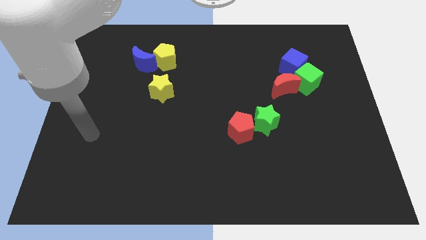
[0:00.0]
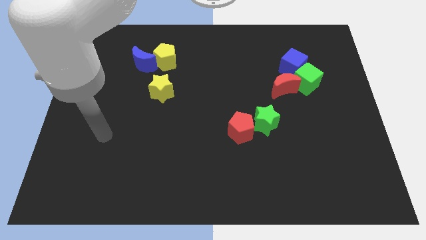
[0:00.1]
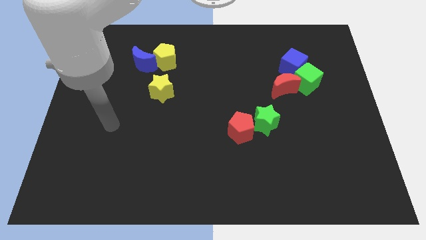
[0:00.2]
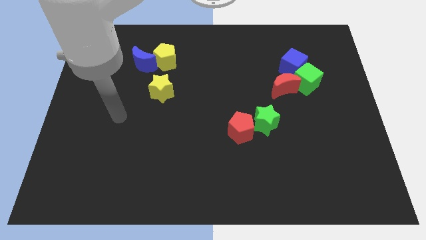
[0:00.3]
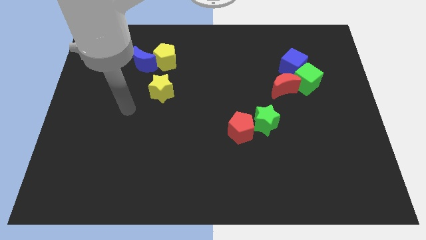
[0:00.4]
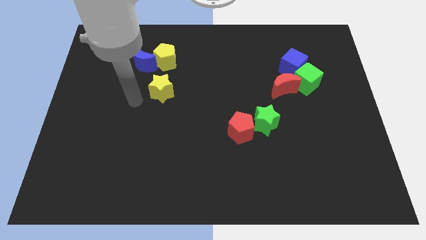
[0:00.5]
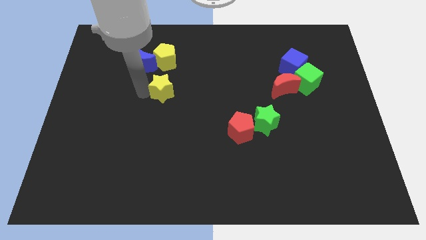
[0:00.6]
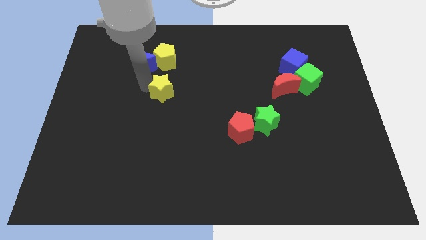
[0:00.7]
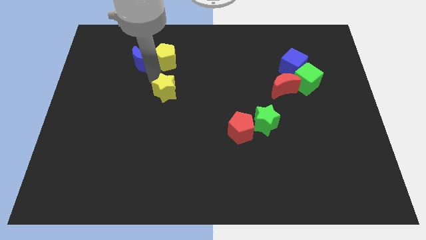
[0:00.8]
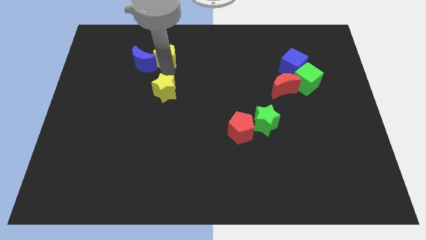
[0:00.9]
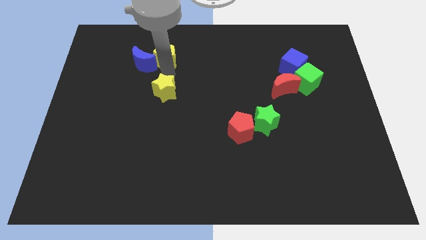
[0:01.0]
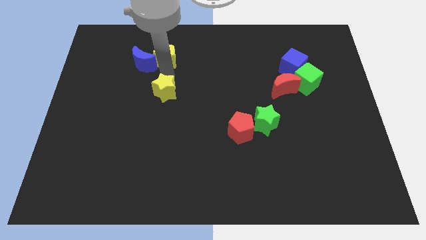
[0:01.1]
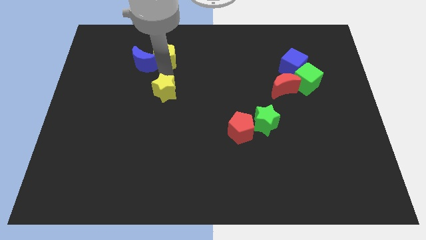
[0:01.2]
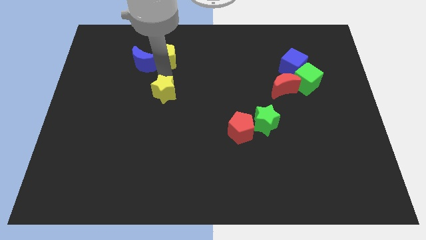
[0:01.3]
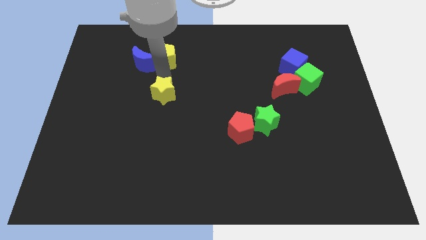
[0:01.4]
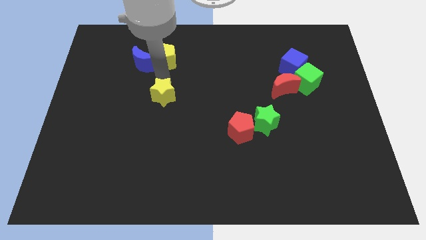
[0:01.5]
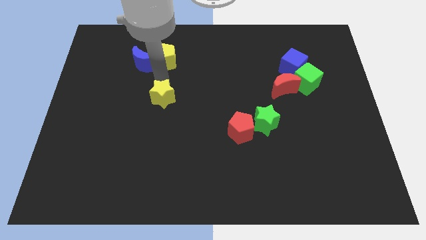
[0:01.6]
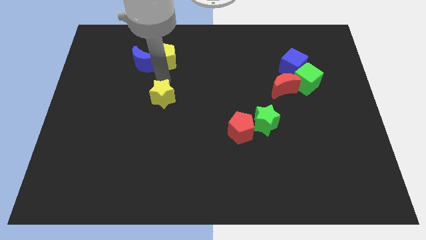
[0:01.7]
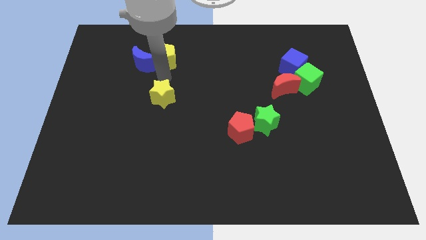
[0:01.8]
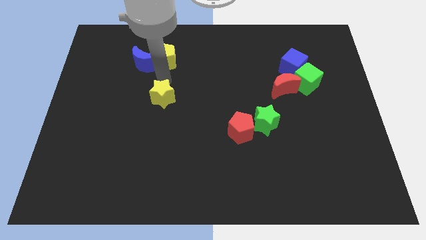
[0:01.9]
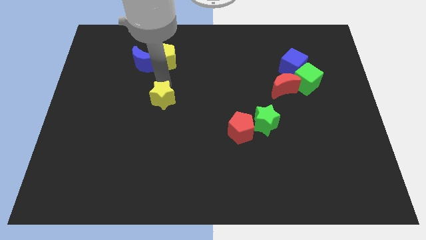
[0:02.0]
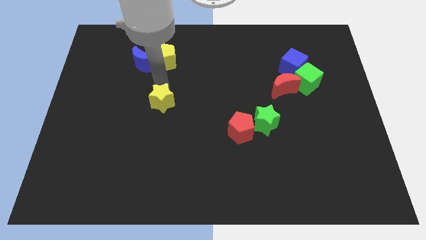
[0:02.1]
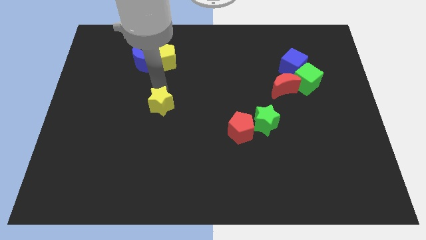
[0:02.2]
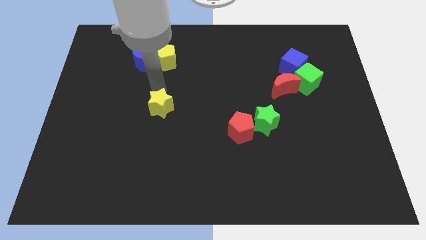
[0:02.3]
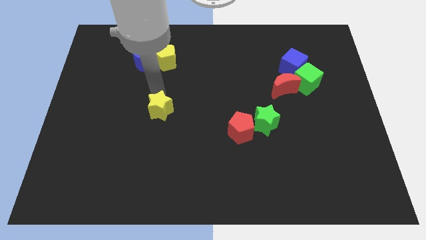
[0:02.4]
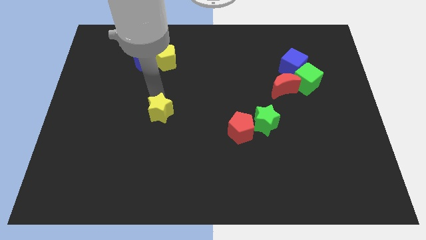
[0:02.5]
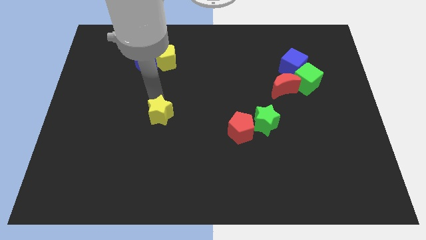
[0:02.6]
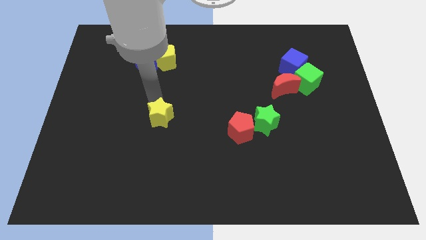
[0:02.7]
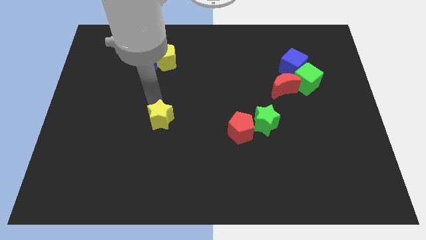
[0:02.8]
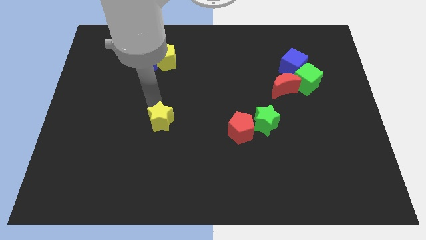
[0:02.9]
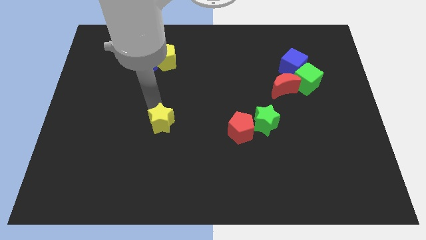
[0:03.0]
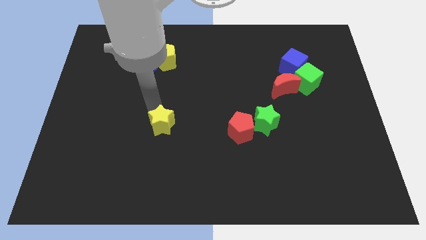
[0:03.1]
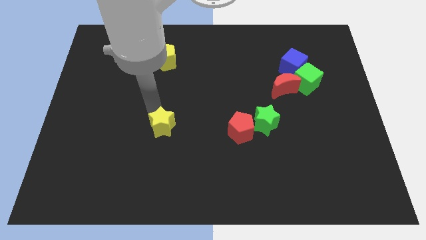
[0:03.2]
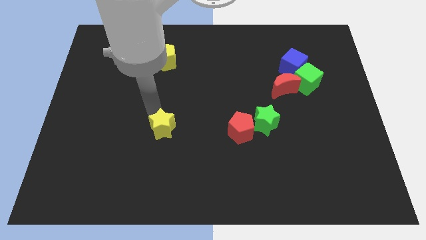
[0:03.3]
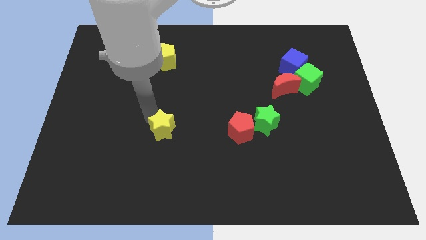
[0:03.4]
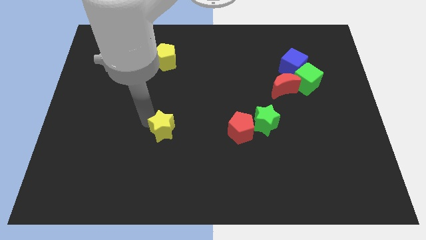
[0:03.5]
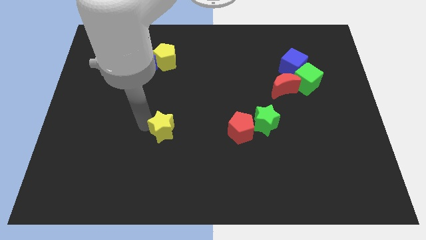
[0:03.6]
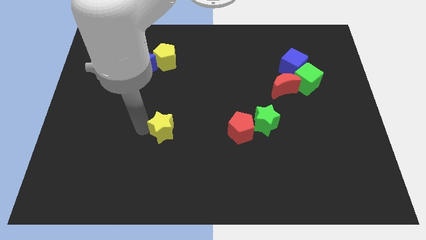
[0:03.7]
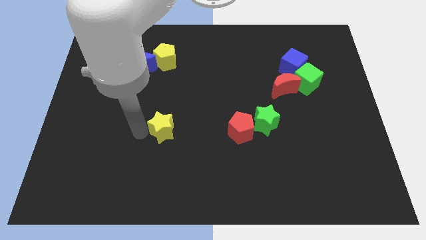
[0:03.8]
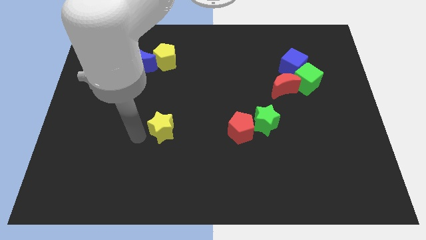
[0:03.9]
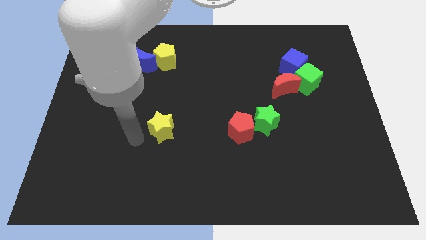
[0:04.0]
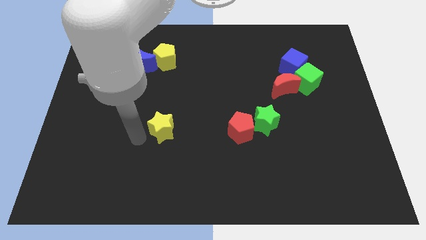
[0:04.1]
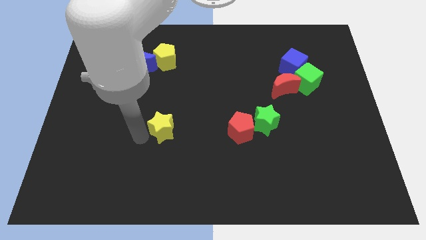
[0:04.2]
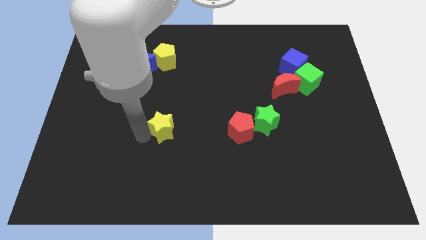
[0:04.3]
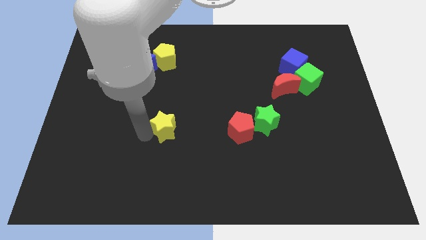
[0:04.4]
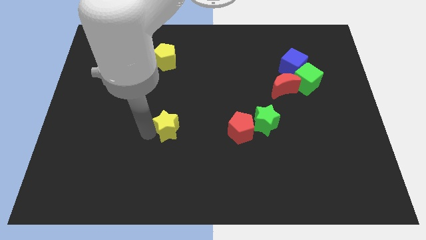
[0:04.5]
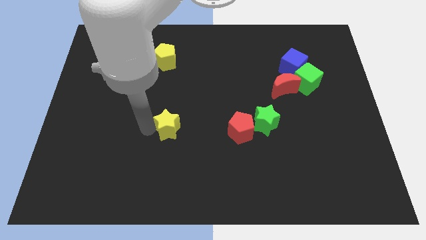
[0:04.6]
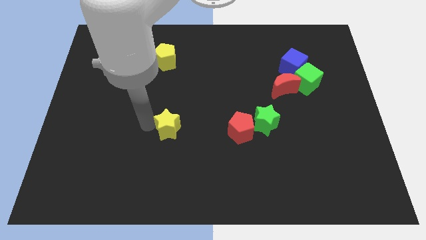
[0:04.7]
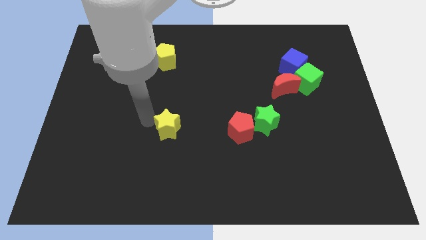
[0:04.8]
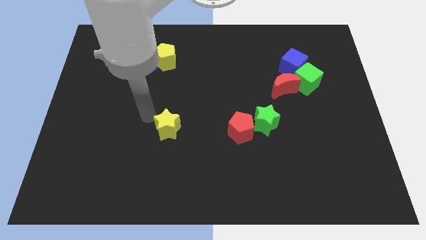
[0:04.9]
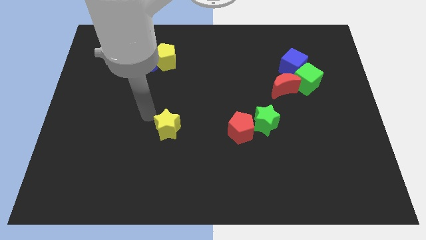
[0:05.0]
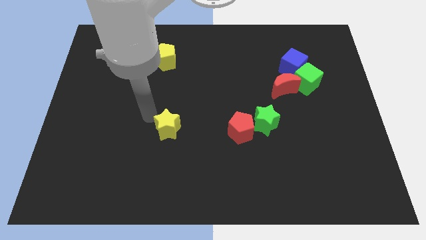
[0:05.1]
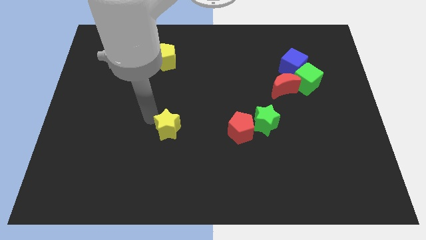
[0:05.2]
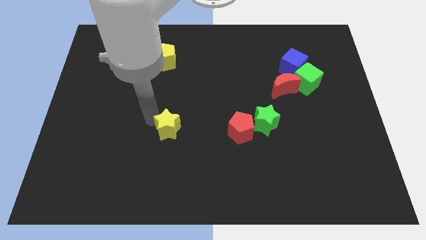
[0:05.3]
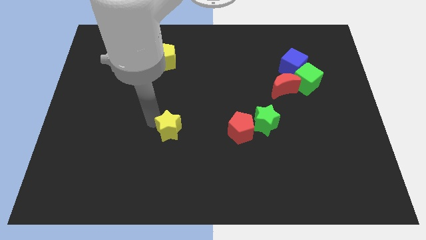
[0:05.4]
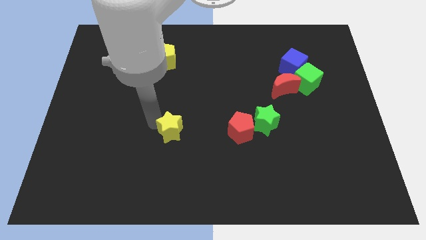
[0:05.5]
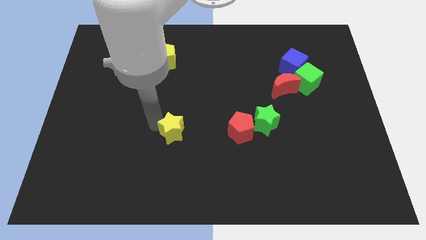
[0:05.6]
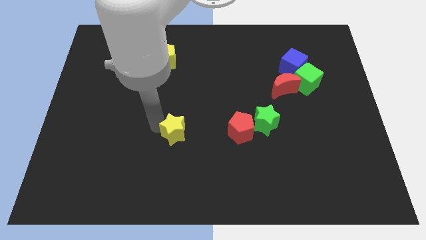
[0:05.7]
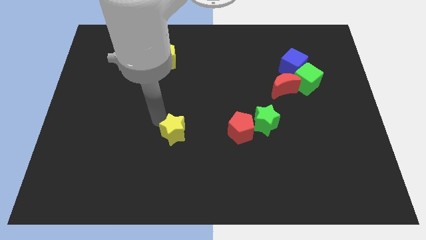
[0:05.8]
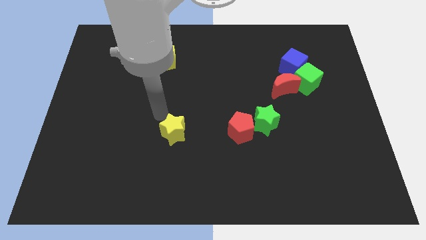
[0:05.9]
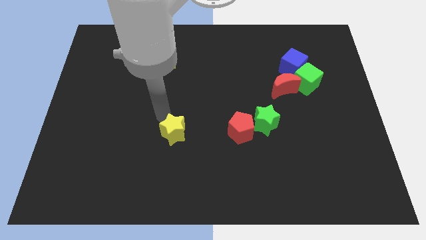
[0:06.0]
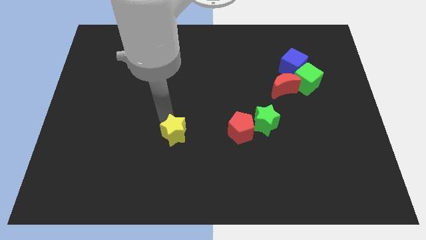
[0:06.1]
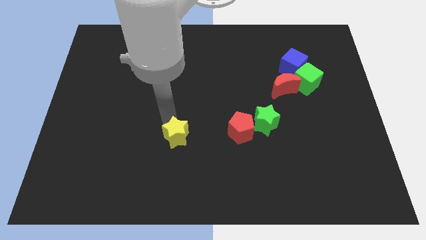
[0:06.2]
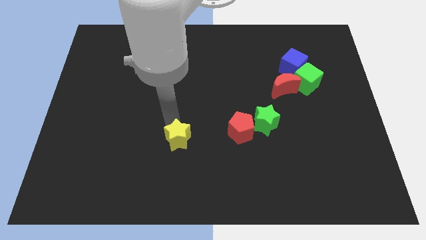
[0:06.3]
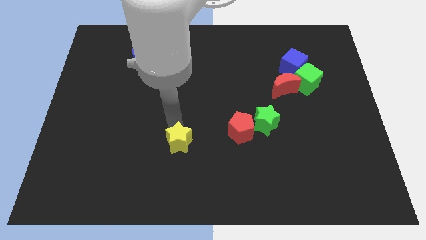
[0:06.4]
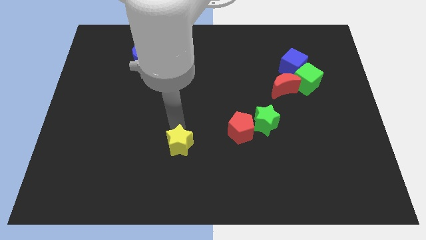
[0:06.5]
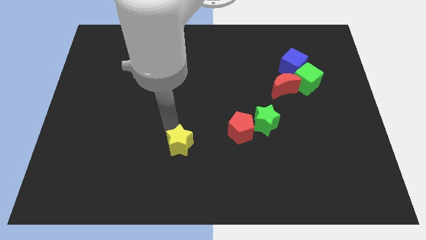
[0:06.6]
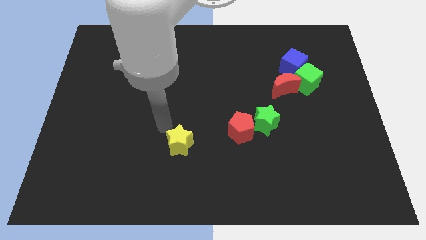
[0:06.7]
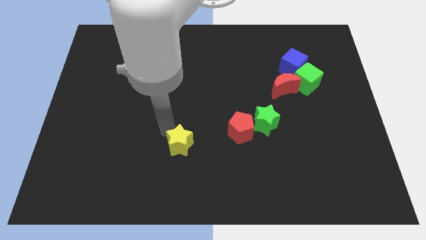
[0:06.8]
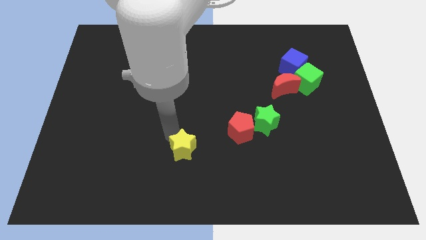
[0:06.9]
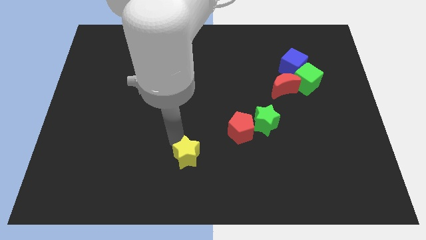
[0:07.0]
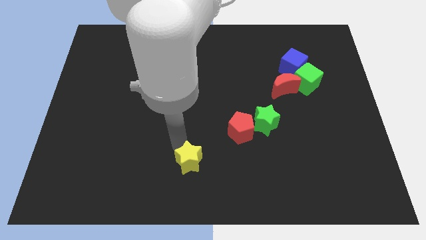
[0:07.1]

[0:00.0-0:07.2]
slide the yellow star to the bottom side

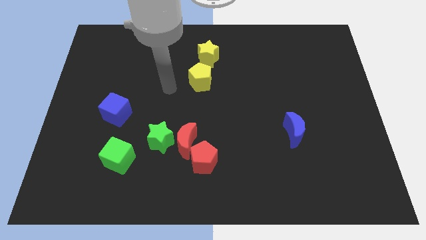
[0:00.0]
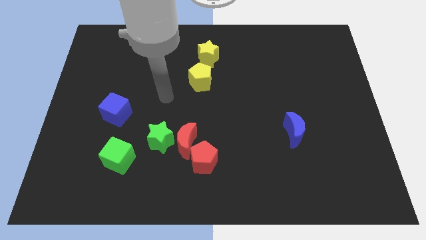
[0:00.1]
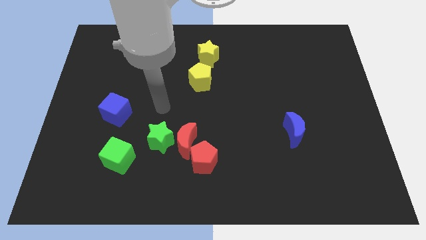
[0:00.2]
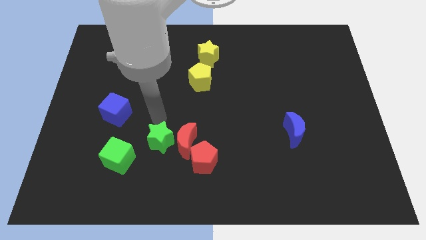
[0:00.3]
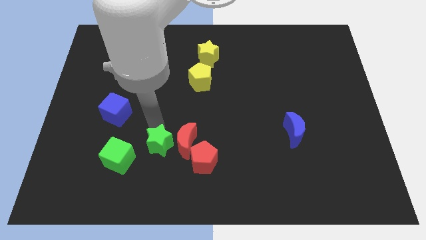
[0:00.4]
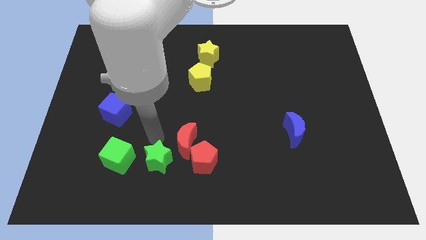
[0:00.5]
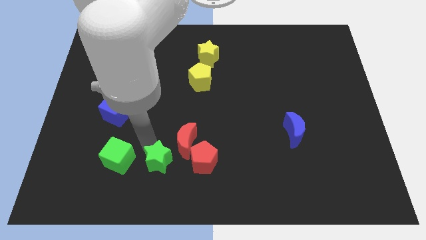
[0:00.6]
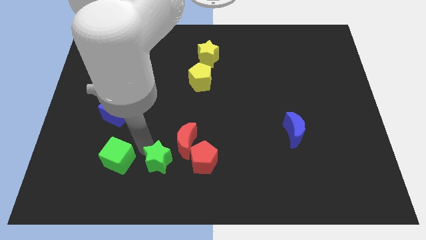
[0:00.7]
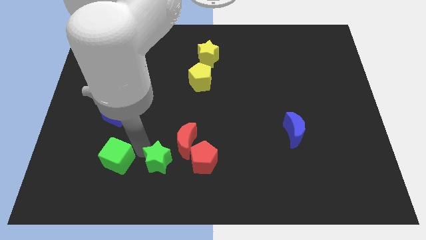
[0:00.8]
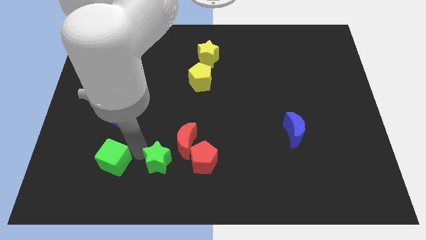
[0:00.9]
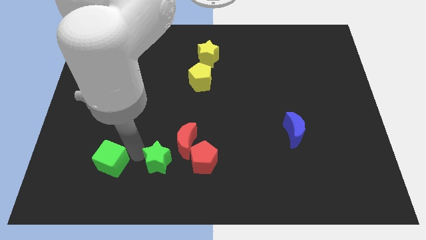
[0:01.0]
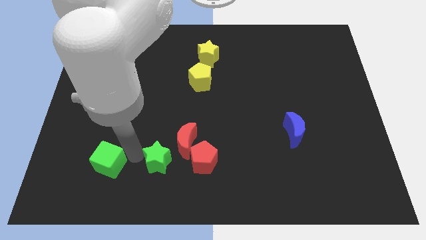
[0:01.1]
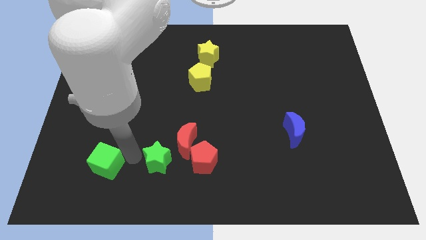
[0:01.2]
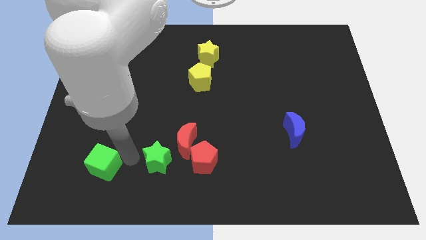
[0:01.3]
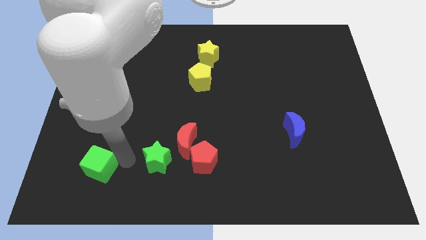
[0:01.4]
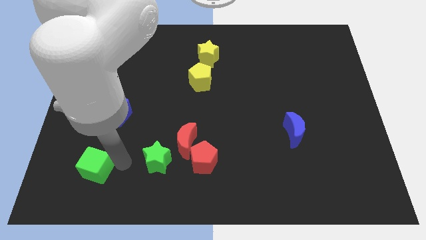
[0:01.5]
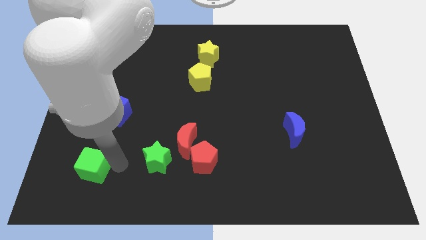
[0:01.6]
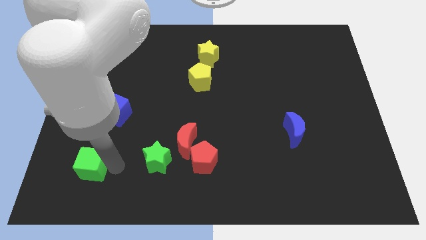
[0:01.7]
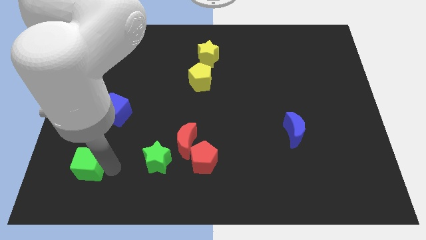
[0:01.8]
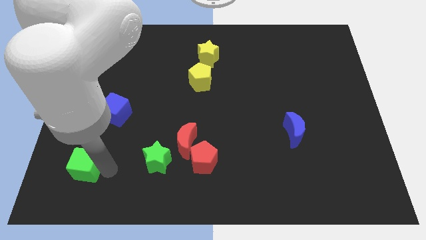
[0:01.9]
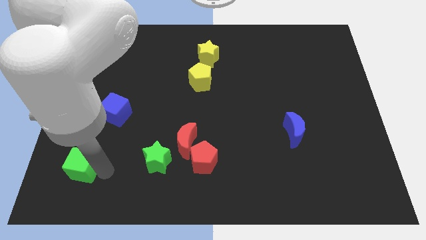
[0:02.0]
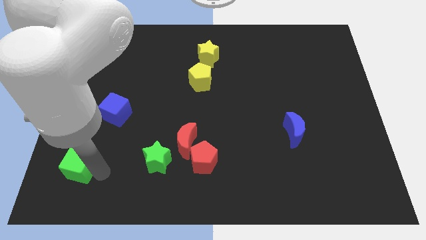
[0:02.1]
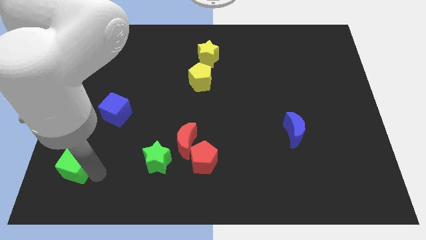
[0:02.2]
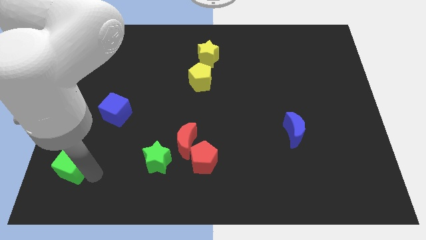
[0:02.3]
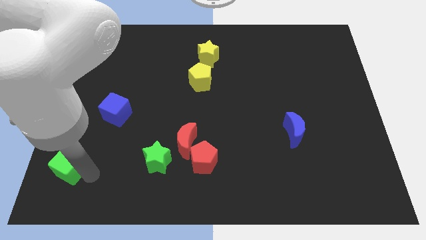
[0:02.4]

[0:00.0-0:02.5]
push the green cube to the lower left corner
